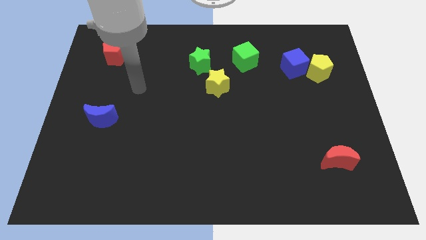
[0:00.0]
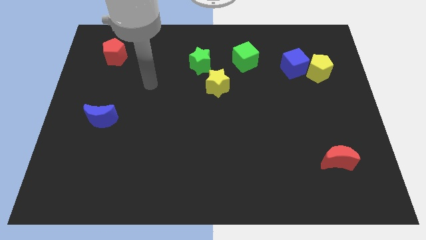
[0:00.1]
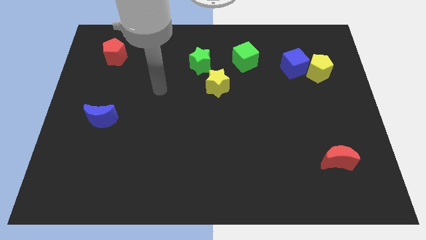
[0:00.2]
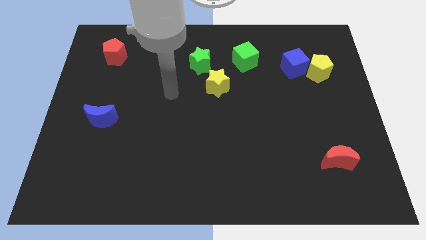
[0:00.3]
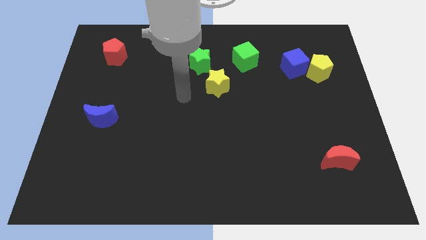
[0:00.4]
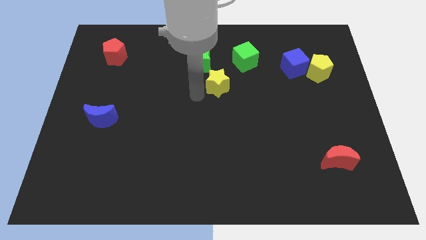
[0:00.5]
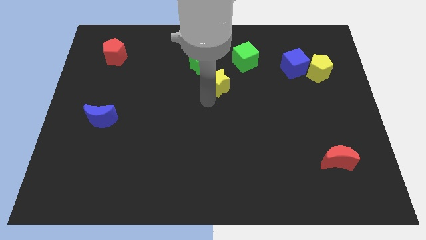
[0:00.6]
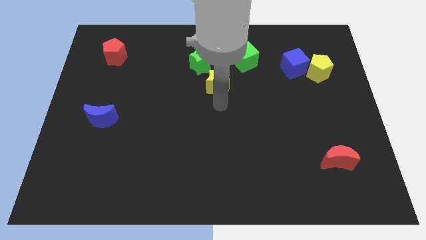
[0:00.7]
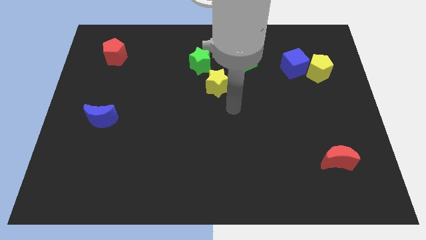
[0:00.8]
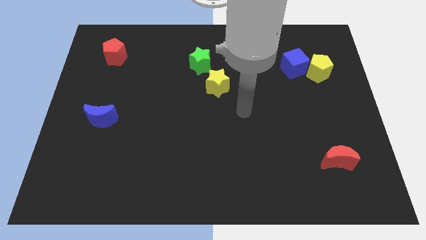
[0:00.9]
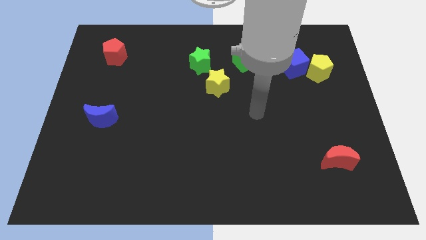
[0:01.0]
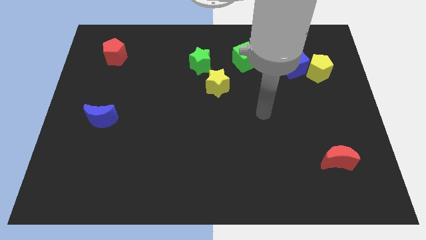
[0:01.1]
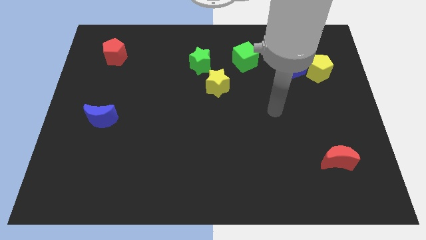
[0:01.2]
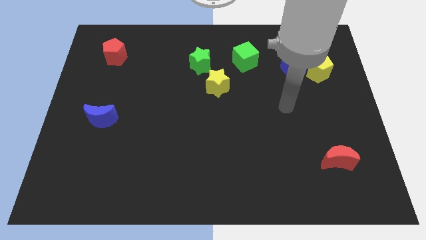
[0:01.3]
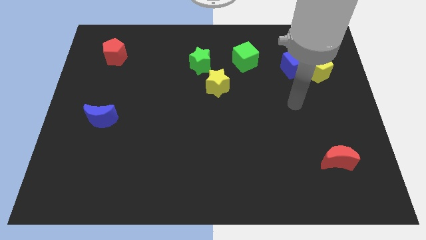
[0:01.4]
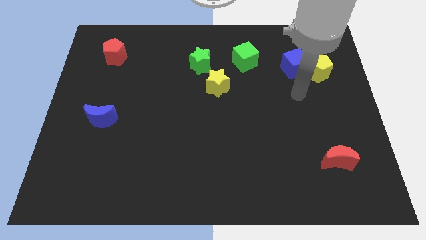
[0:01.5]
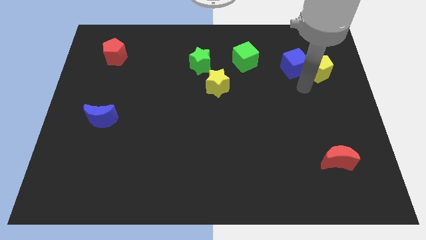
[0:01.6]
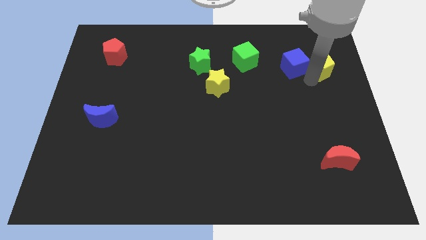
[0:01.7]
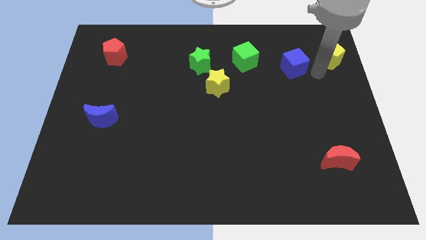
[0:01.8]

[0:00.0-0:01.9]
separate the blue cube from the yellow pentagon

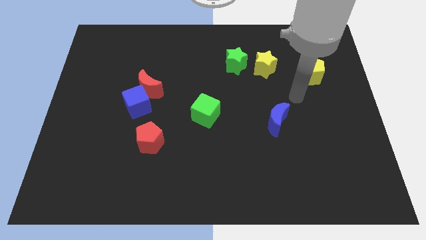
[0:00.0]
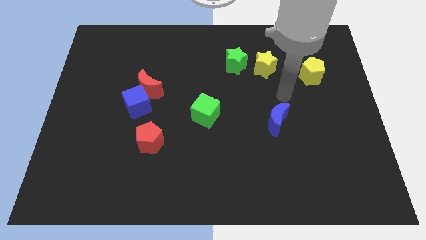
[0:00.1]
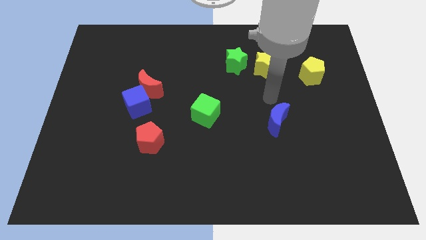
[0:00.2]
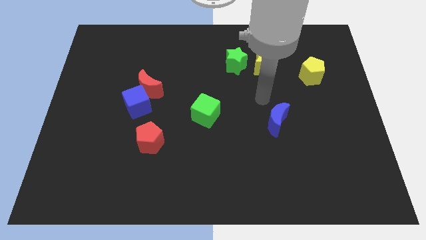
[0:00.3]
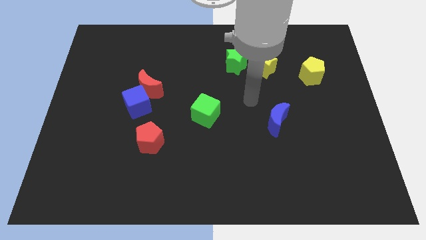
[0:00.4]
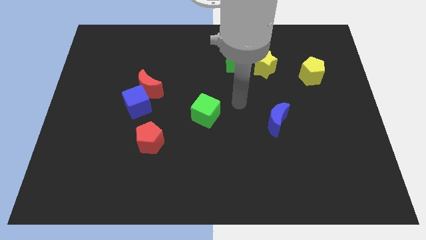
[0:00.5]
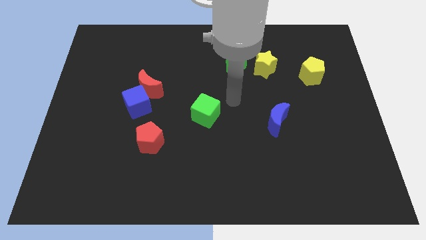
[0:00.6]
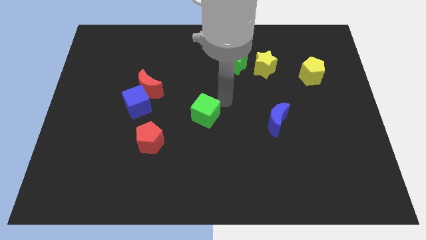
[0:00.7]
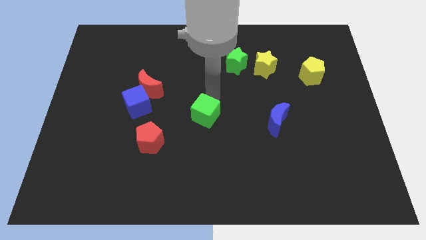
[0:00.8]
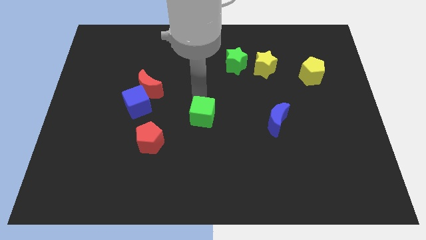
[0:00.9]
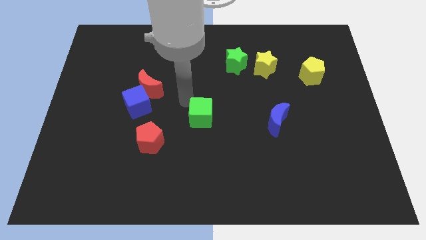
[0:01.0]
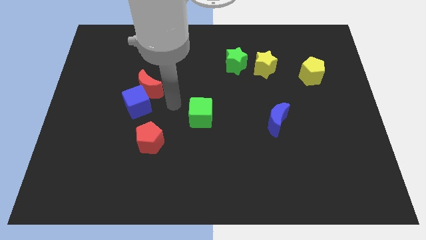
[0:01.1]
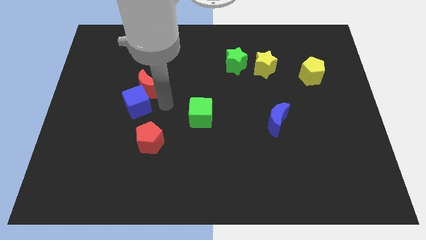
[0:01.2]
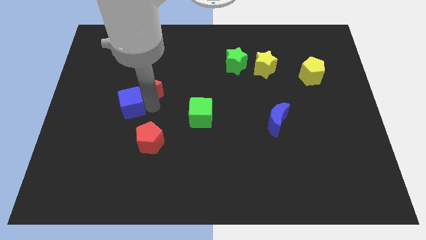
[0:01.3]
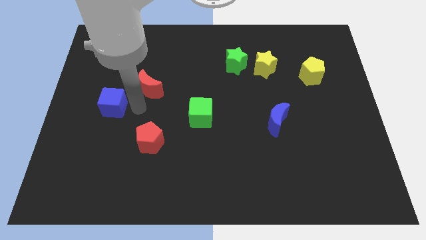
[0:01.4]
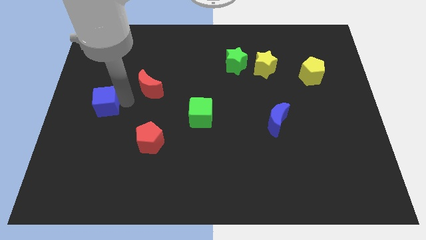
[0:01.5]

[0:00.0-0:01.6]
move the red moon away from the blue cube

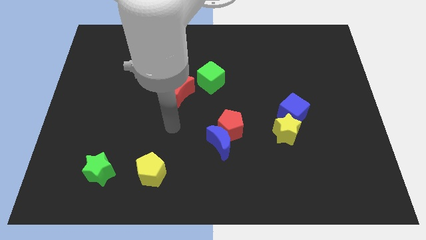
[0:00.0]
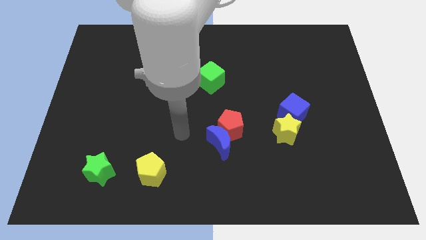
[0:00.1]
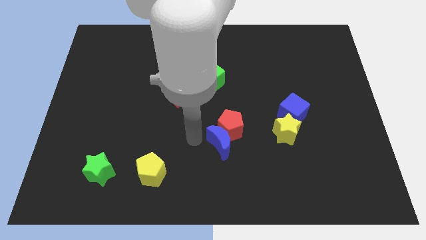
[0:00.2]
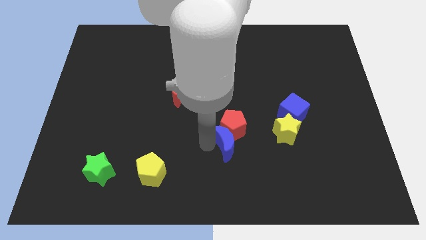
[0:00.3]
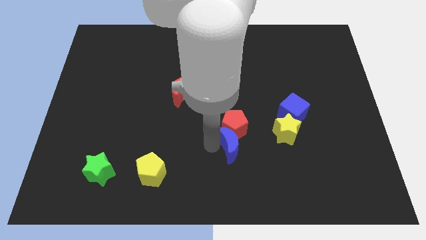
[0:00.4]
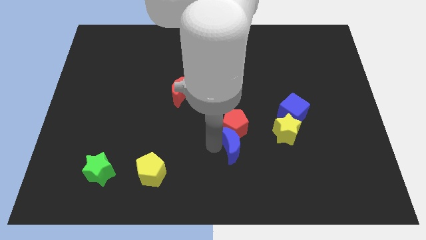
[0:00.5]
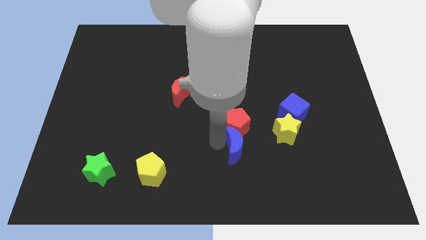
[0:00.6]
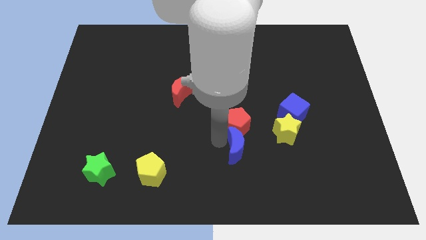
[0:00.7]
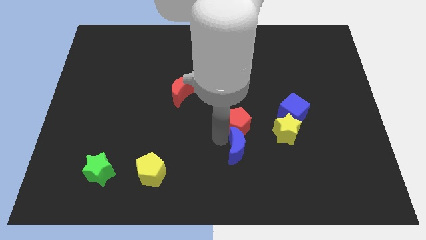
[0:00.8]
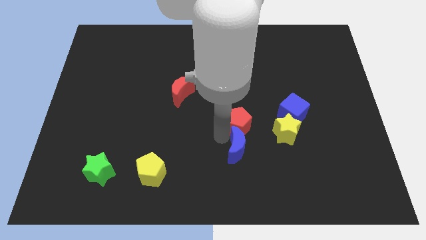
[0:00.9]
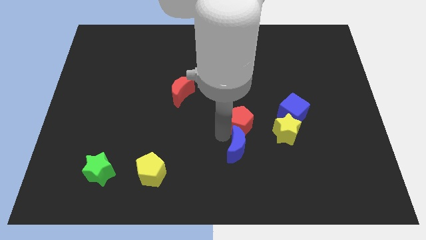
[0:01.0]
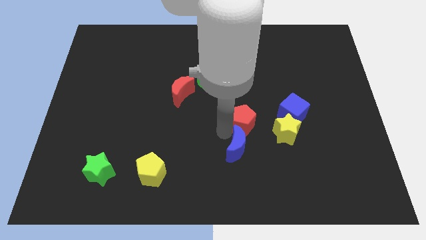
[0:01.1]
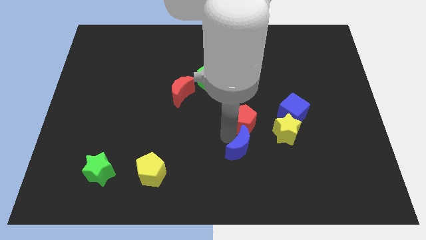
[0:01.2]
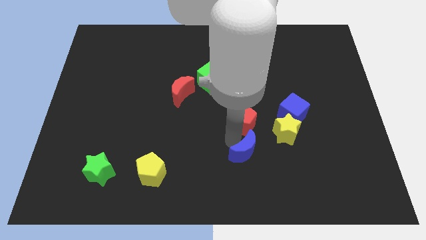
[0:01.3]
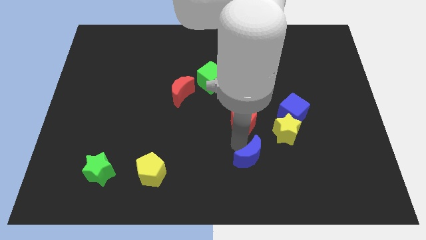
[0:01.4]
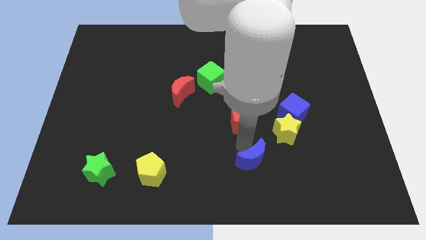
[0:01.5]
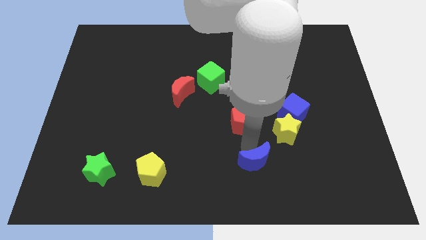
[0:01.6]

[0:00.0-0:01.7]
pull the red pentagon apart from the blue moon

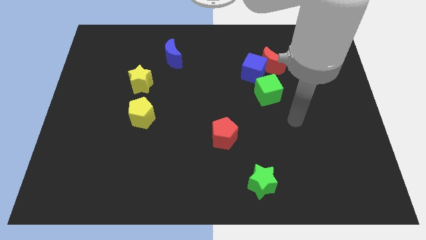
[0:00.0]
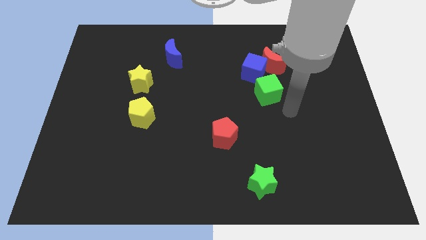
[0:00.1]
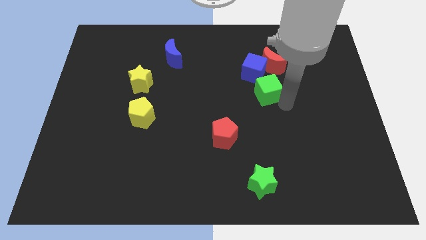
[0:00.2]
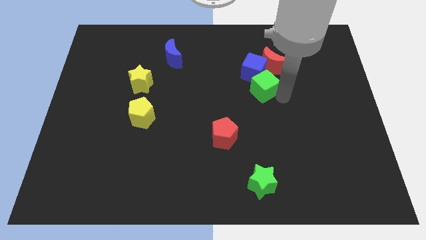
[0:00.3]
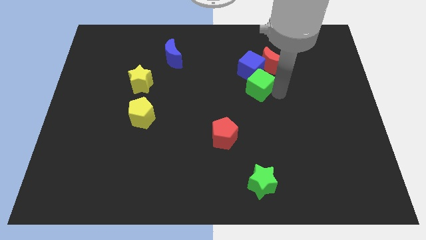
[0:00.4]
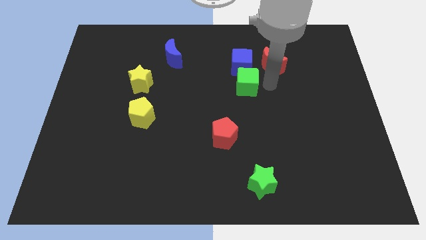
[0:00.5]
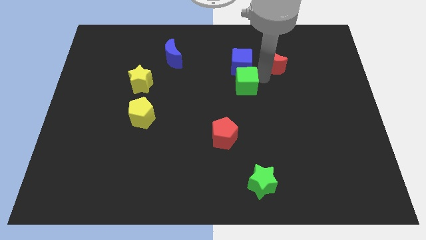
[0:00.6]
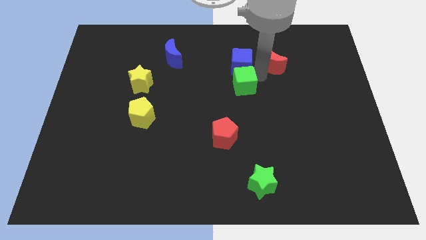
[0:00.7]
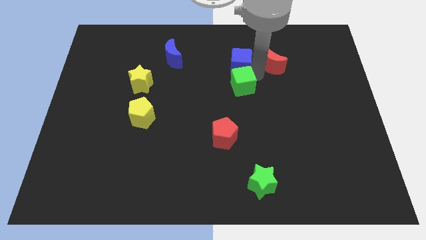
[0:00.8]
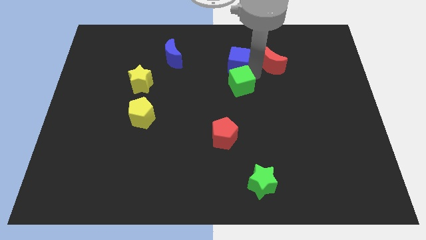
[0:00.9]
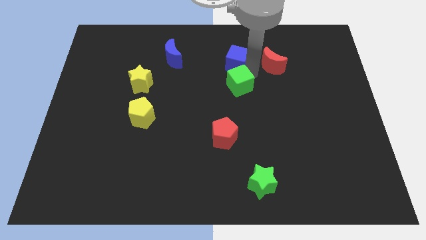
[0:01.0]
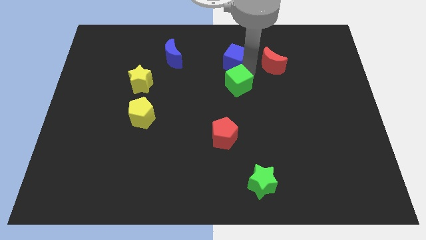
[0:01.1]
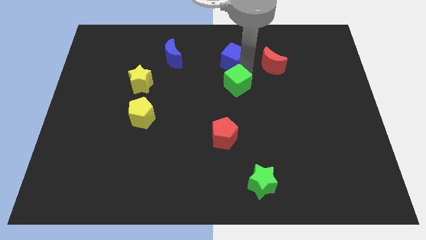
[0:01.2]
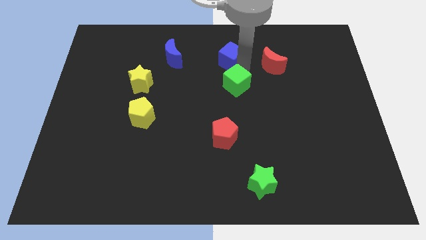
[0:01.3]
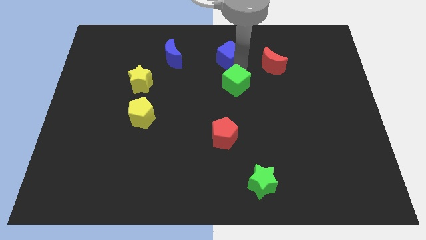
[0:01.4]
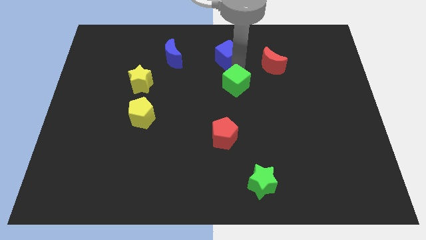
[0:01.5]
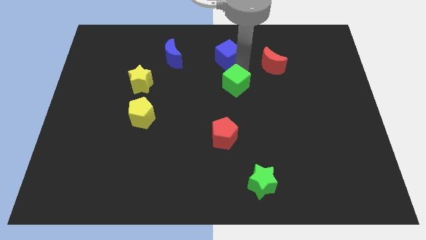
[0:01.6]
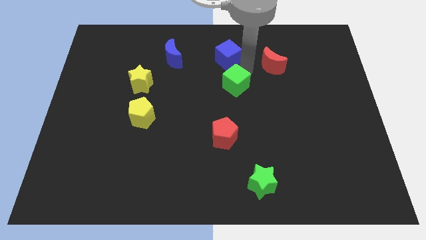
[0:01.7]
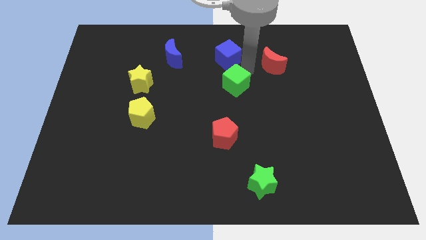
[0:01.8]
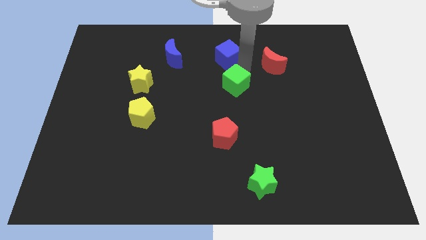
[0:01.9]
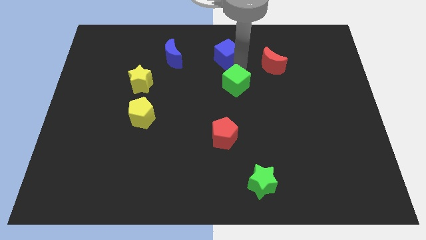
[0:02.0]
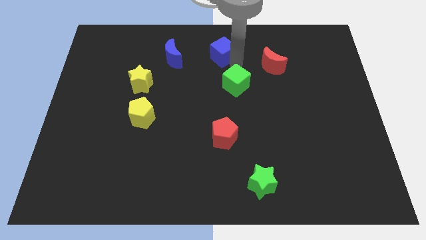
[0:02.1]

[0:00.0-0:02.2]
move the blue cube away from the red moon and green cube

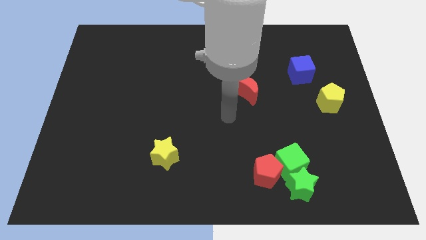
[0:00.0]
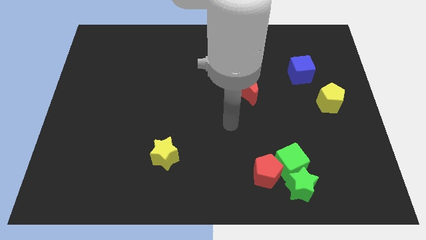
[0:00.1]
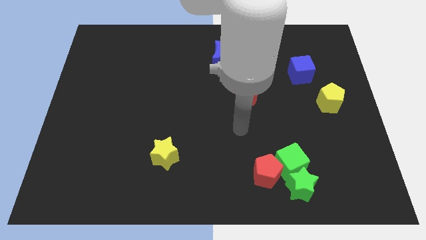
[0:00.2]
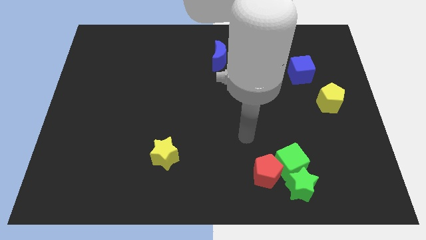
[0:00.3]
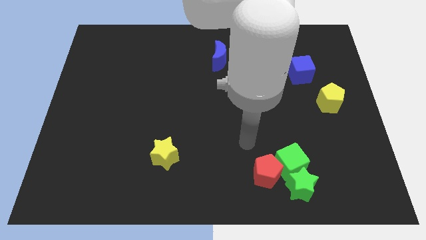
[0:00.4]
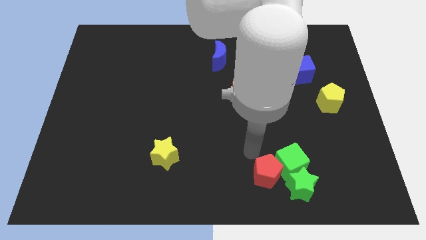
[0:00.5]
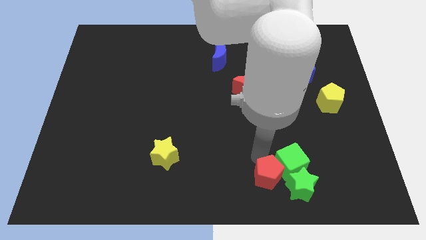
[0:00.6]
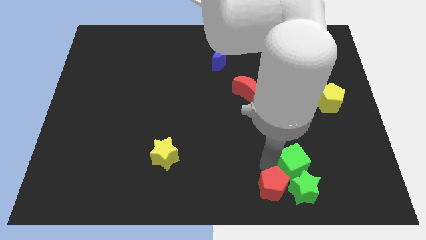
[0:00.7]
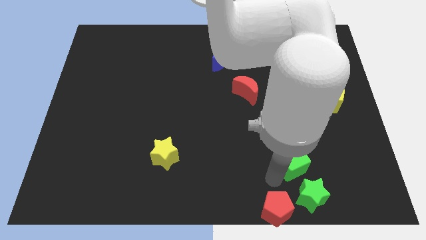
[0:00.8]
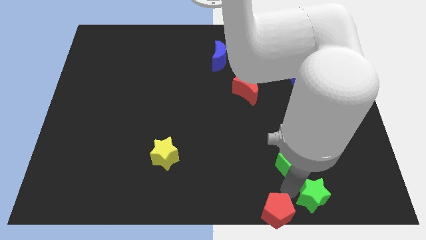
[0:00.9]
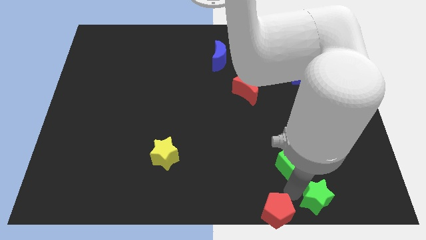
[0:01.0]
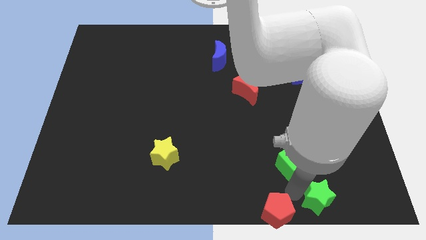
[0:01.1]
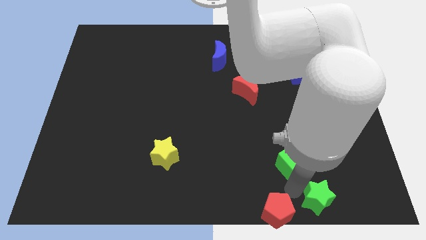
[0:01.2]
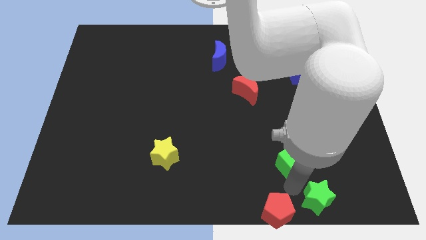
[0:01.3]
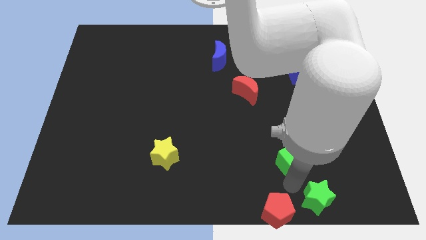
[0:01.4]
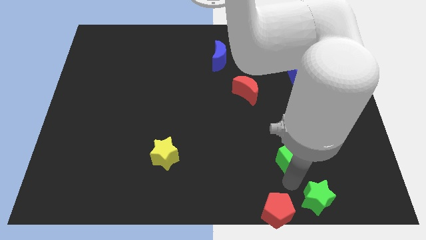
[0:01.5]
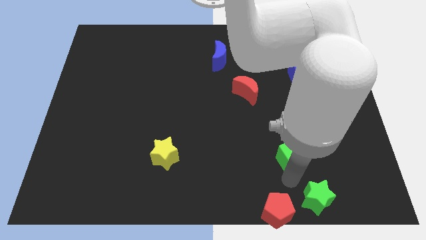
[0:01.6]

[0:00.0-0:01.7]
pull the green cube apart from the green star and red pentagon

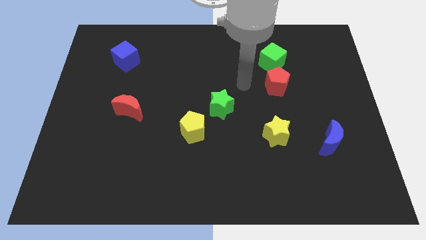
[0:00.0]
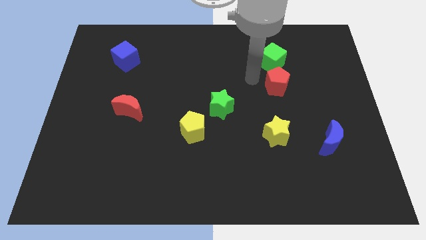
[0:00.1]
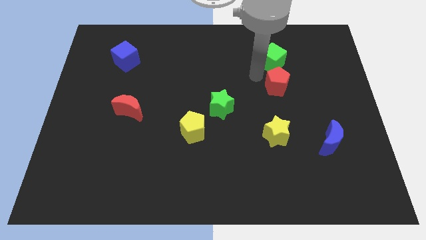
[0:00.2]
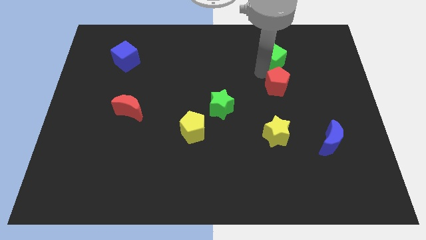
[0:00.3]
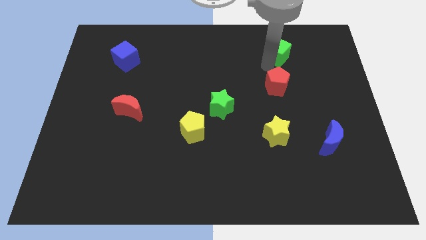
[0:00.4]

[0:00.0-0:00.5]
separate the red pentagon from the green cube
